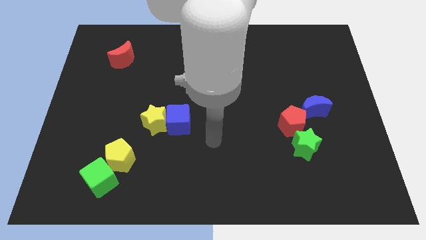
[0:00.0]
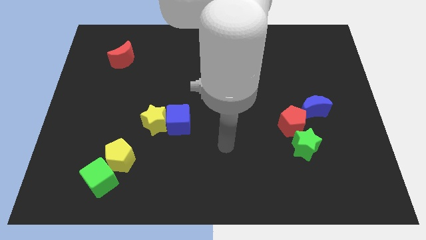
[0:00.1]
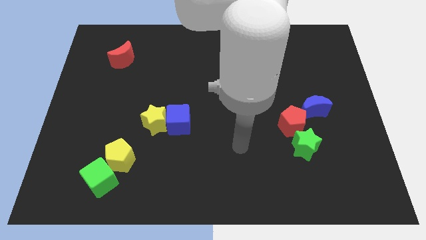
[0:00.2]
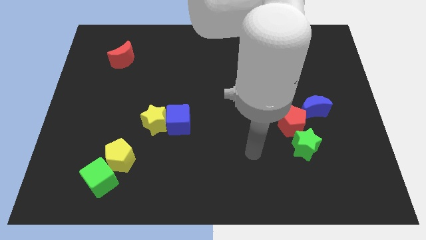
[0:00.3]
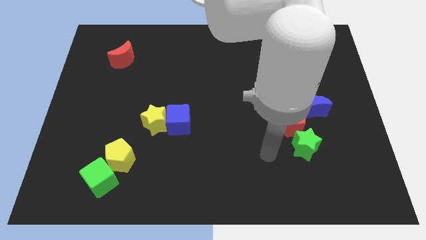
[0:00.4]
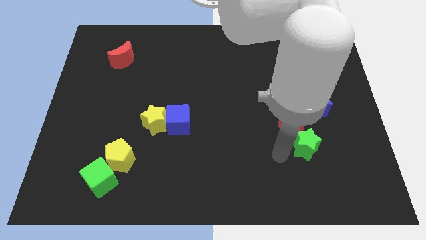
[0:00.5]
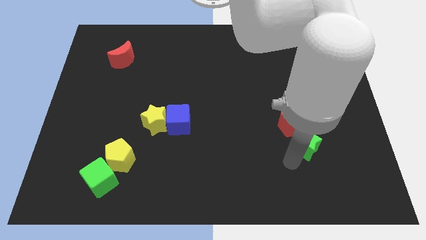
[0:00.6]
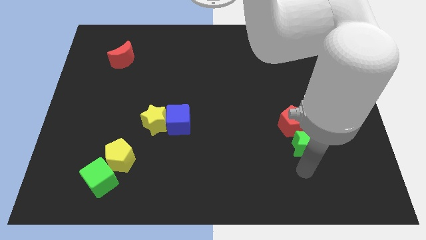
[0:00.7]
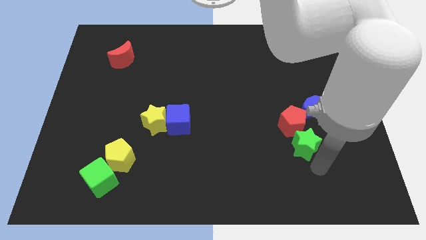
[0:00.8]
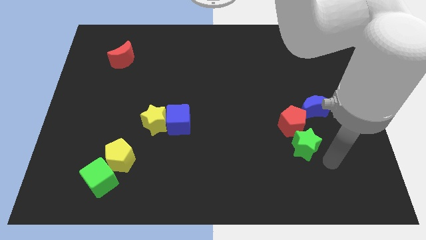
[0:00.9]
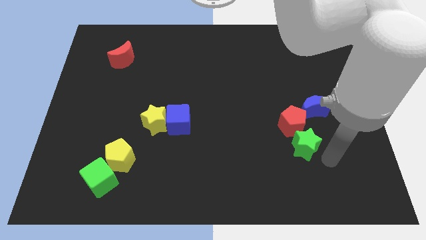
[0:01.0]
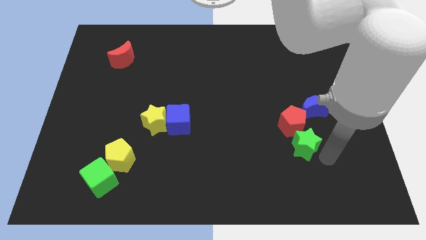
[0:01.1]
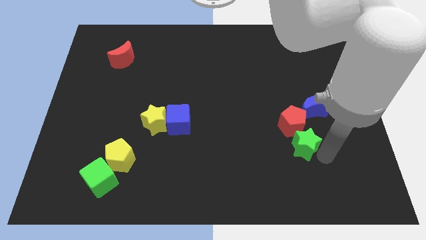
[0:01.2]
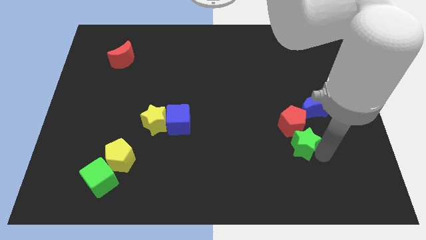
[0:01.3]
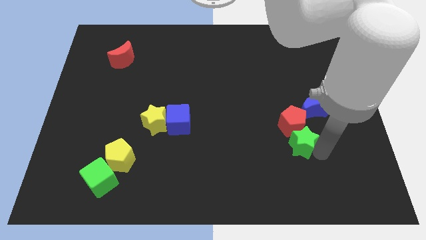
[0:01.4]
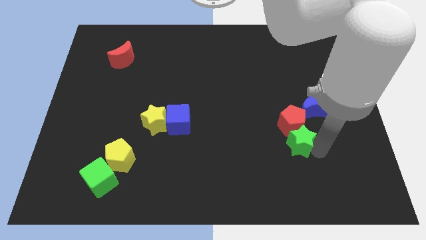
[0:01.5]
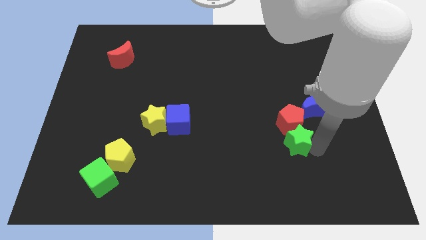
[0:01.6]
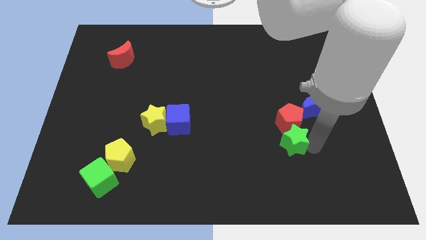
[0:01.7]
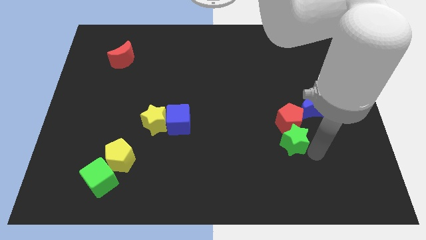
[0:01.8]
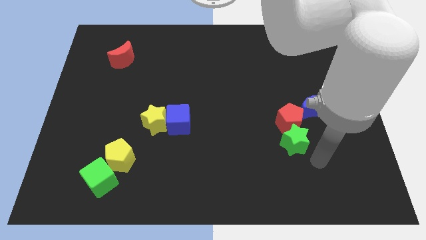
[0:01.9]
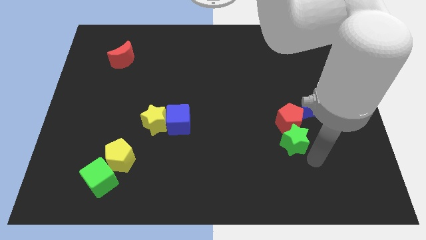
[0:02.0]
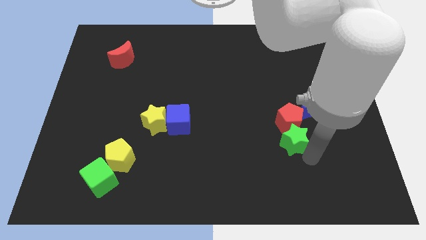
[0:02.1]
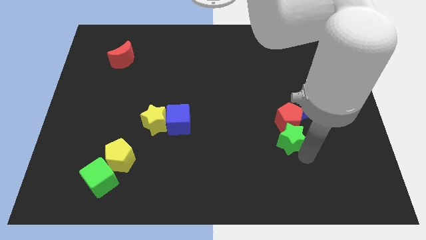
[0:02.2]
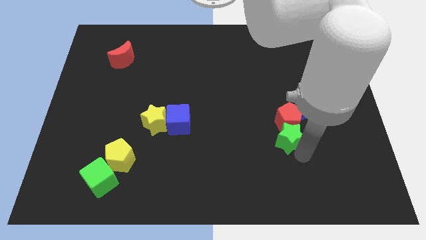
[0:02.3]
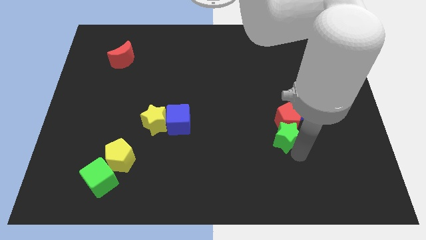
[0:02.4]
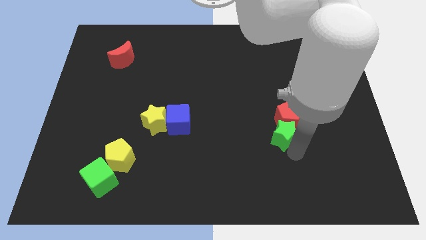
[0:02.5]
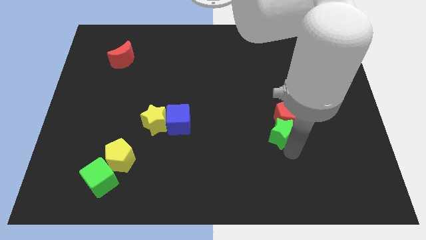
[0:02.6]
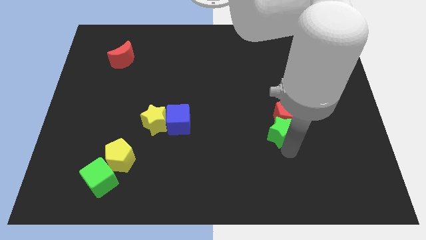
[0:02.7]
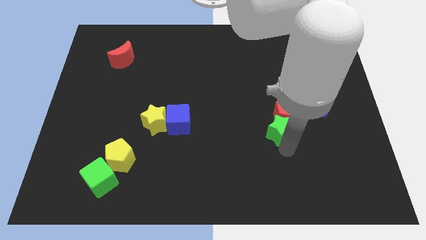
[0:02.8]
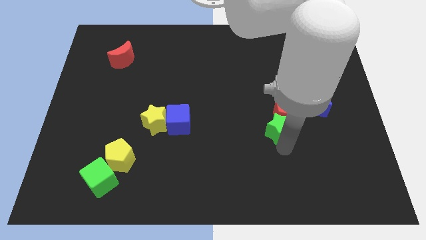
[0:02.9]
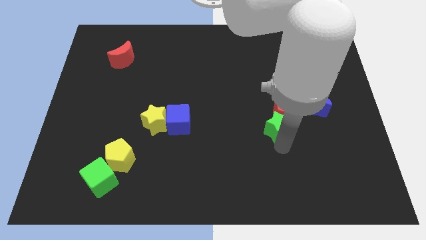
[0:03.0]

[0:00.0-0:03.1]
slightly slide the green star up and then left

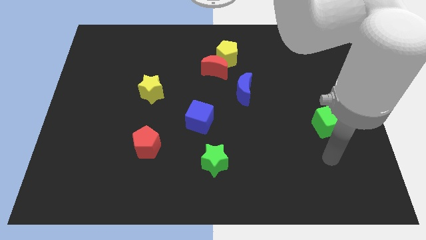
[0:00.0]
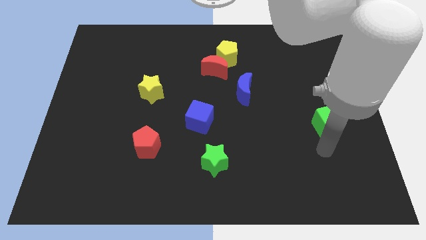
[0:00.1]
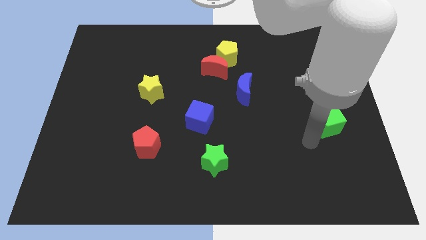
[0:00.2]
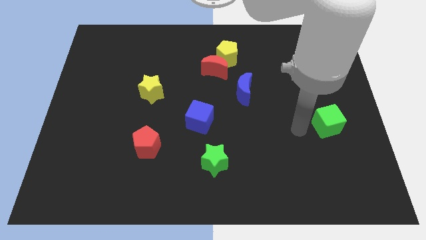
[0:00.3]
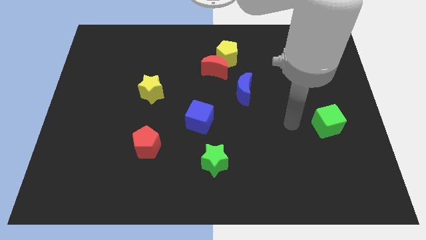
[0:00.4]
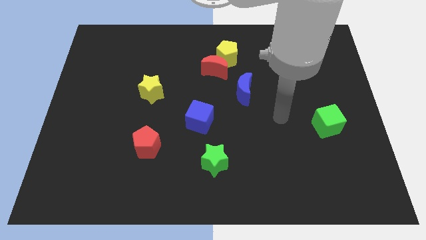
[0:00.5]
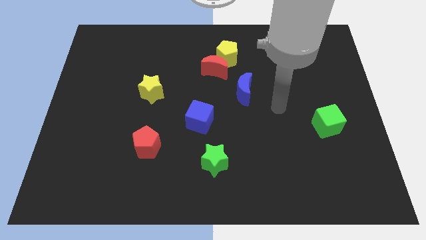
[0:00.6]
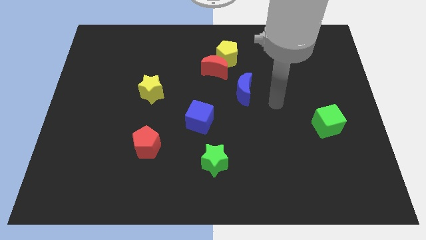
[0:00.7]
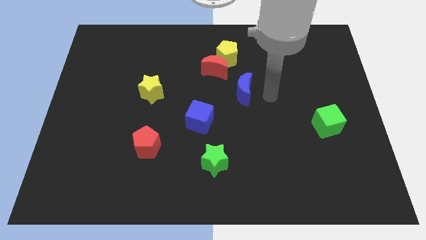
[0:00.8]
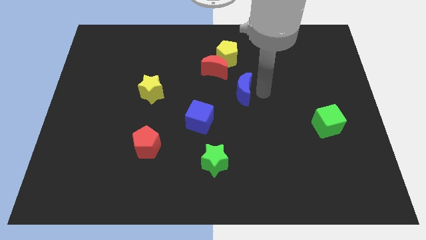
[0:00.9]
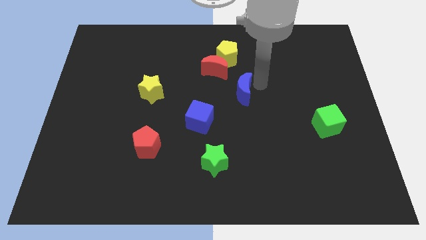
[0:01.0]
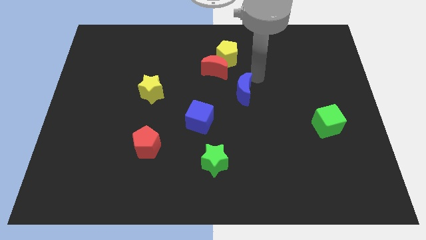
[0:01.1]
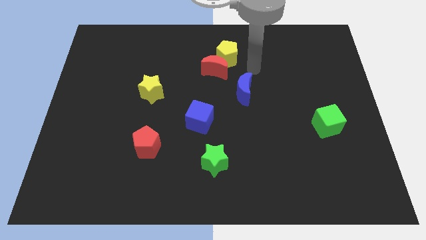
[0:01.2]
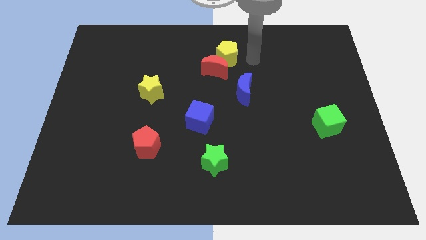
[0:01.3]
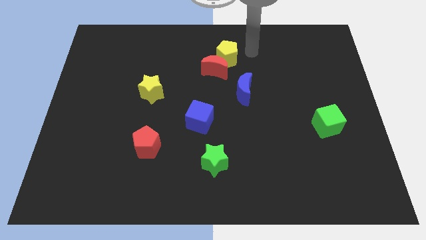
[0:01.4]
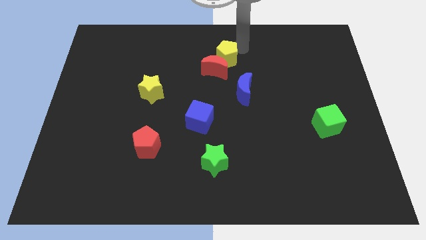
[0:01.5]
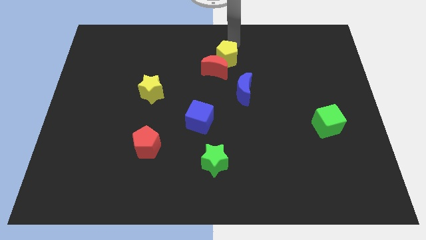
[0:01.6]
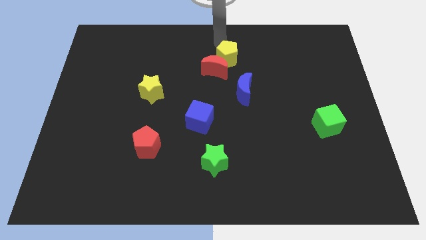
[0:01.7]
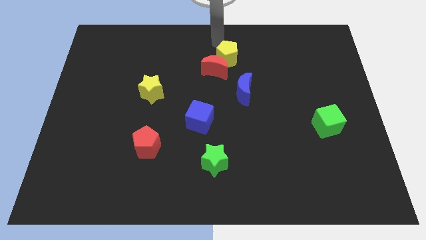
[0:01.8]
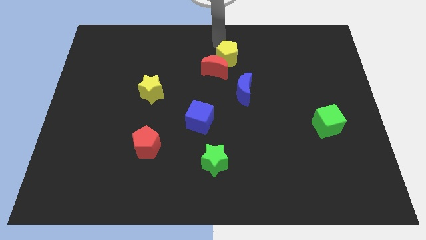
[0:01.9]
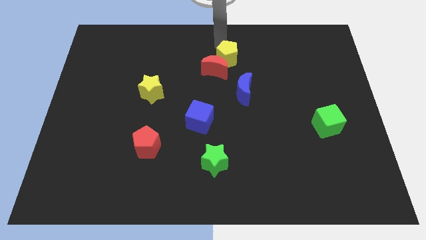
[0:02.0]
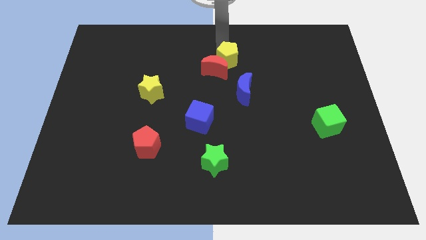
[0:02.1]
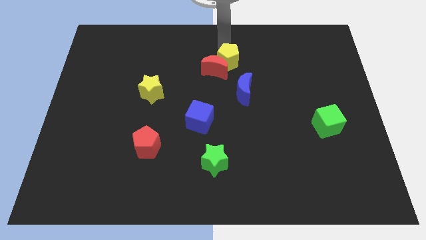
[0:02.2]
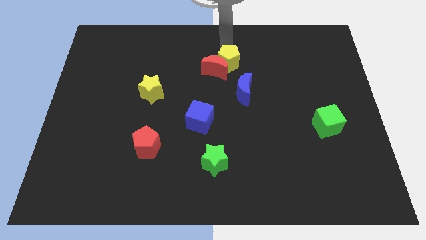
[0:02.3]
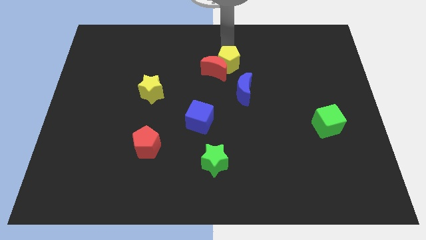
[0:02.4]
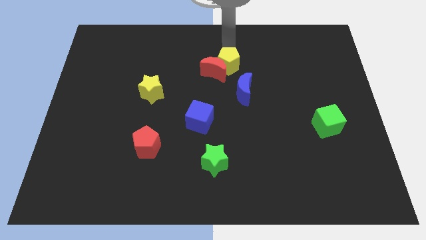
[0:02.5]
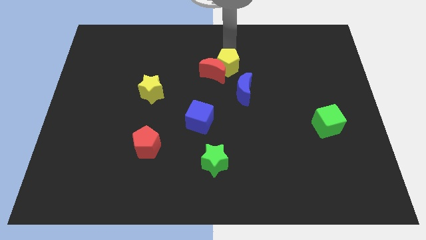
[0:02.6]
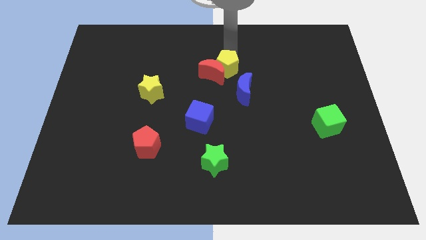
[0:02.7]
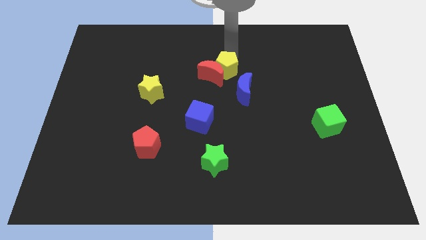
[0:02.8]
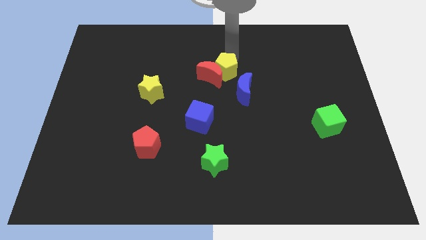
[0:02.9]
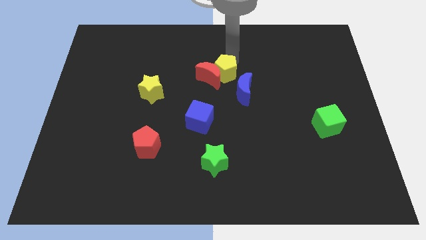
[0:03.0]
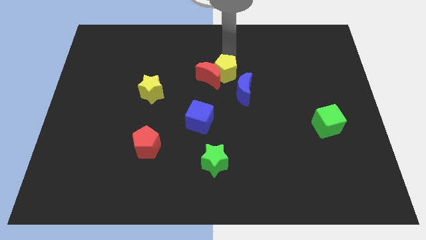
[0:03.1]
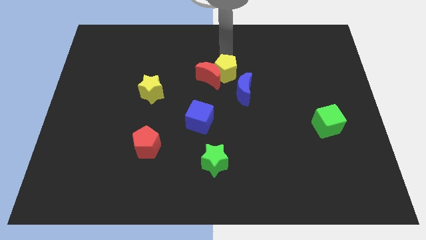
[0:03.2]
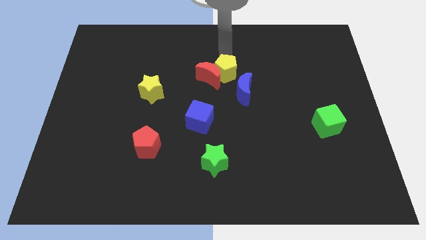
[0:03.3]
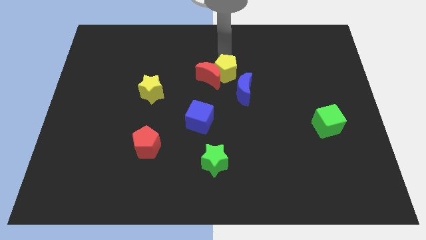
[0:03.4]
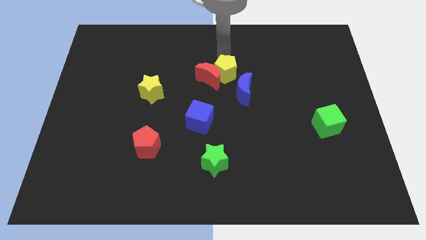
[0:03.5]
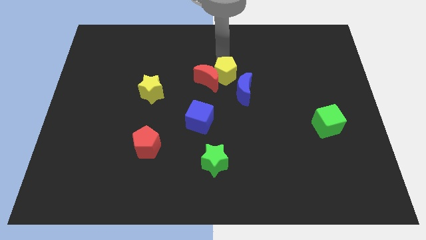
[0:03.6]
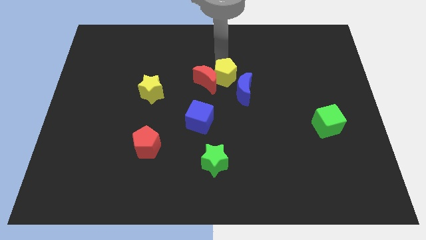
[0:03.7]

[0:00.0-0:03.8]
slide the yellow pentagon slightly down

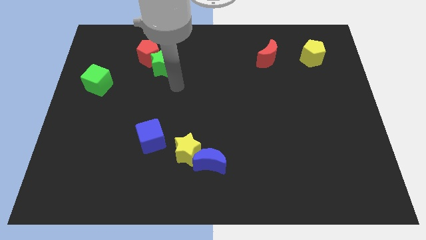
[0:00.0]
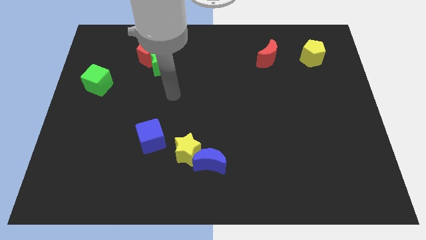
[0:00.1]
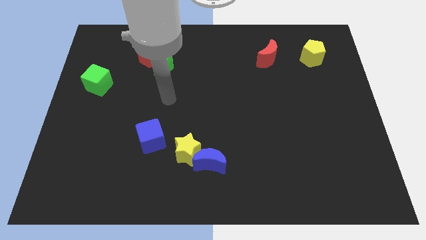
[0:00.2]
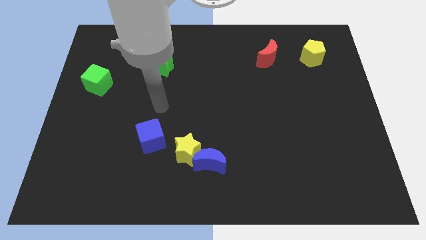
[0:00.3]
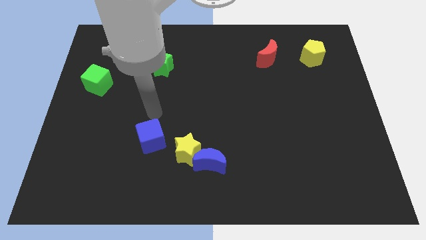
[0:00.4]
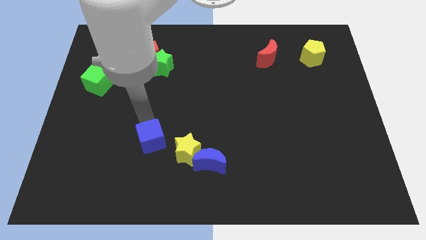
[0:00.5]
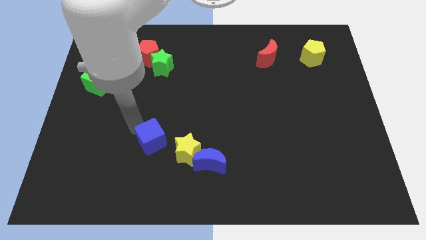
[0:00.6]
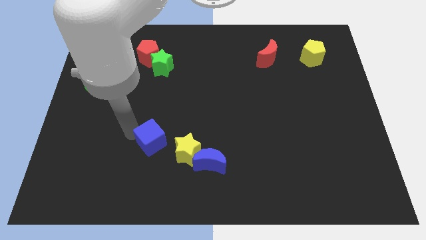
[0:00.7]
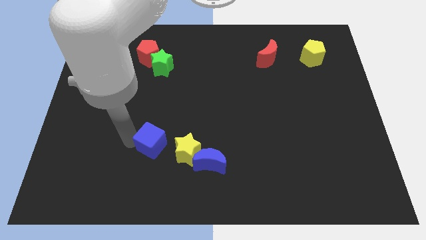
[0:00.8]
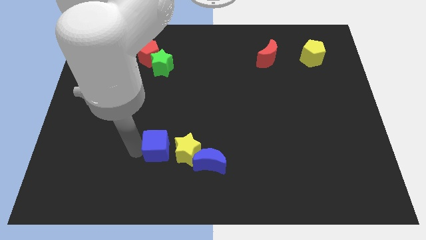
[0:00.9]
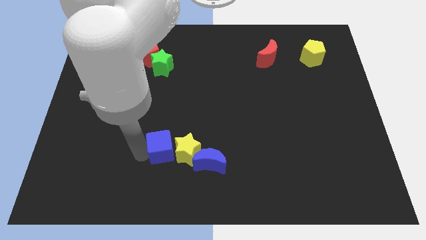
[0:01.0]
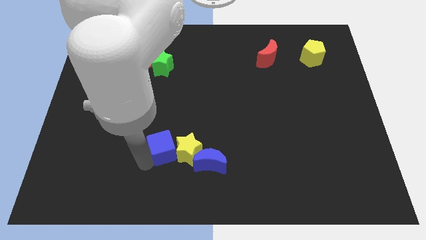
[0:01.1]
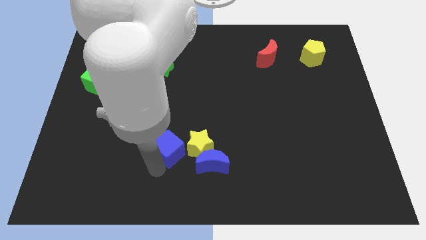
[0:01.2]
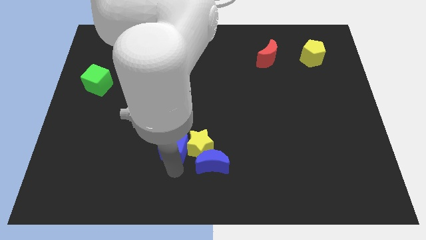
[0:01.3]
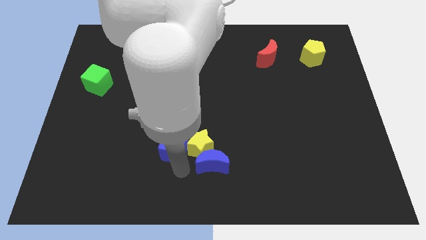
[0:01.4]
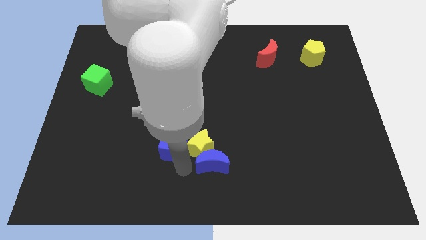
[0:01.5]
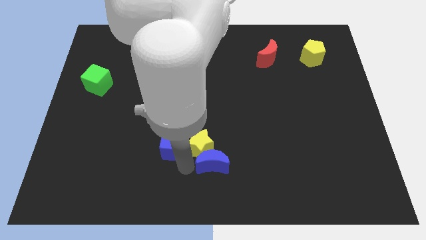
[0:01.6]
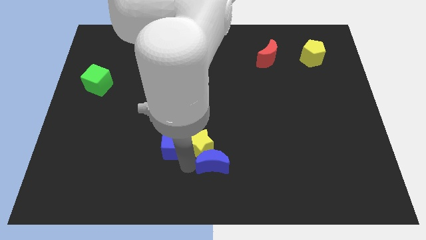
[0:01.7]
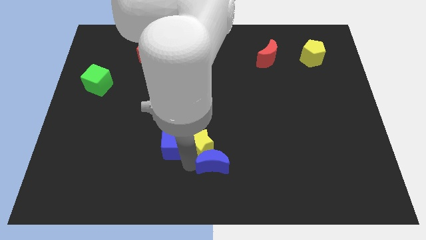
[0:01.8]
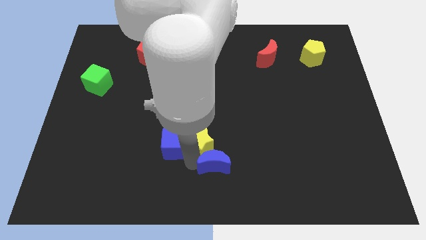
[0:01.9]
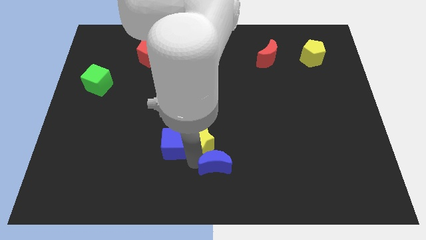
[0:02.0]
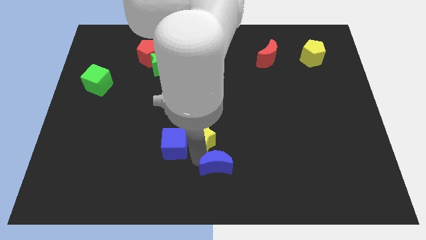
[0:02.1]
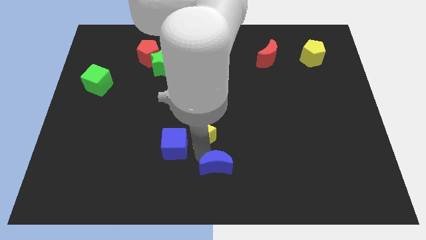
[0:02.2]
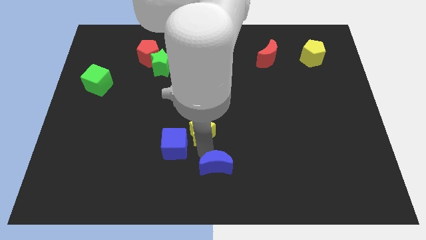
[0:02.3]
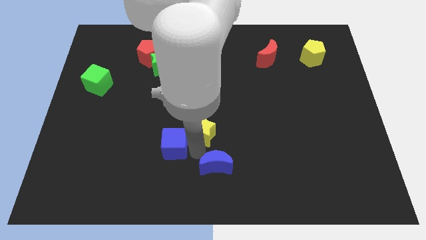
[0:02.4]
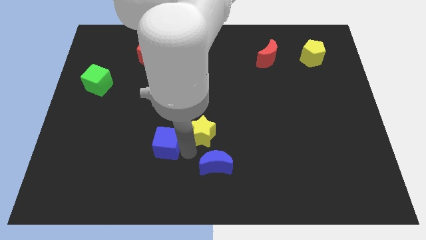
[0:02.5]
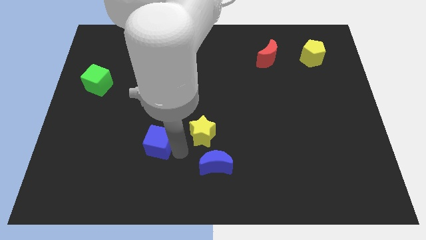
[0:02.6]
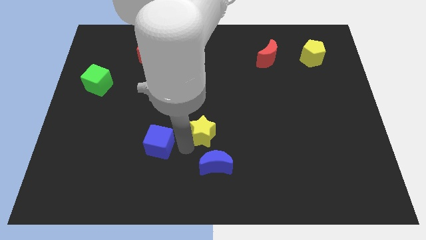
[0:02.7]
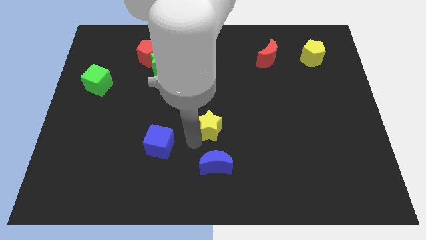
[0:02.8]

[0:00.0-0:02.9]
slightly slide the yellow star up and to the right diagonally
